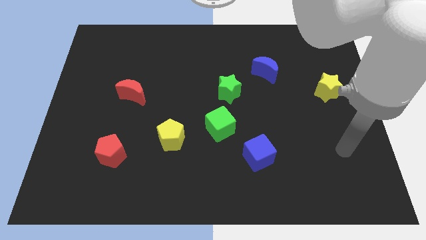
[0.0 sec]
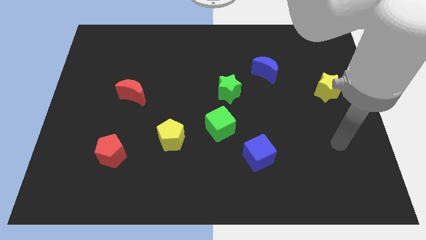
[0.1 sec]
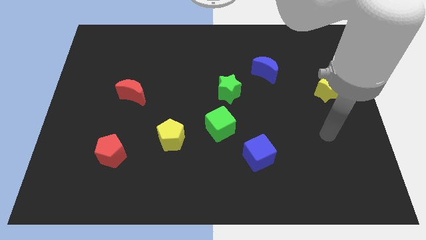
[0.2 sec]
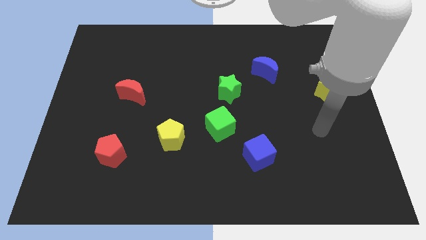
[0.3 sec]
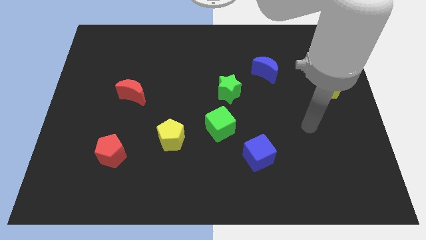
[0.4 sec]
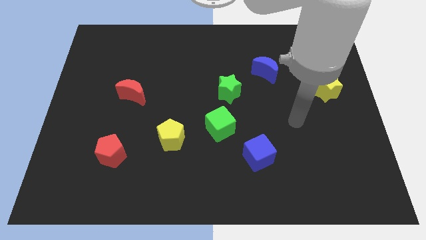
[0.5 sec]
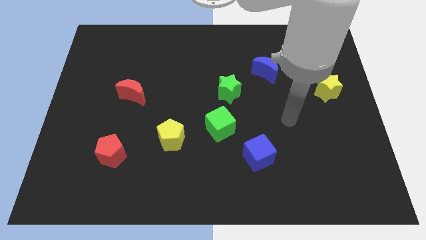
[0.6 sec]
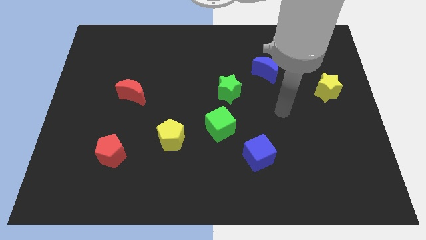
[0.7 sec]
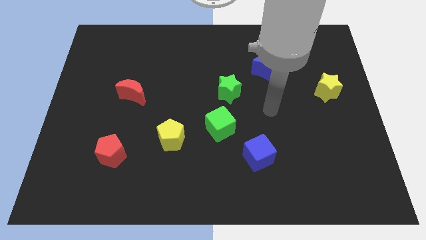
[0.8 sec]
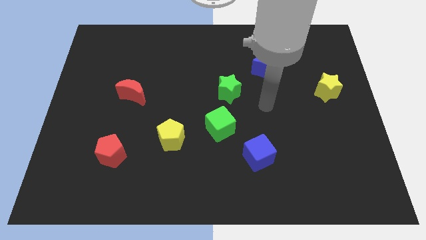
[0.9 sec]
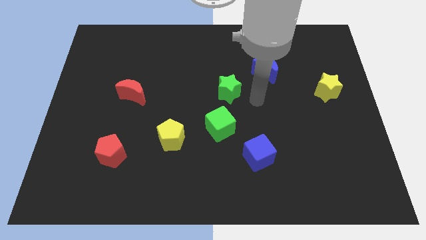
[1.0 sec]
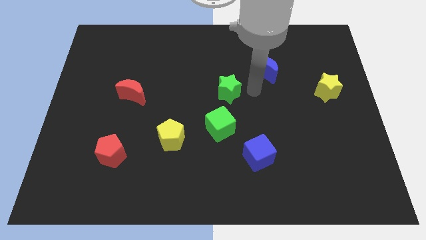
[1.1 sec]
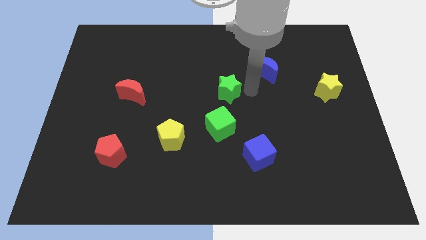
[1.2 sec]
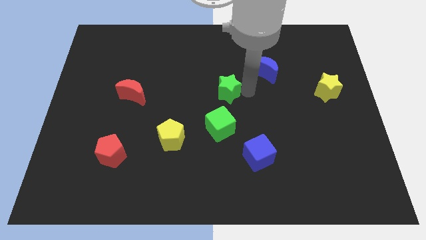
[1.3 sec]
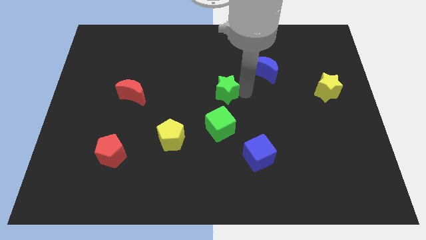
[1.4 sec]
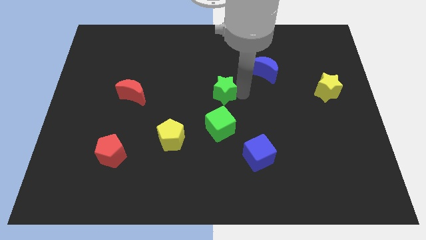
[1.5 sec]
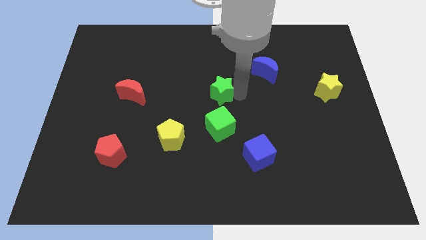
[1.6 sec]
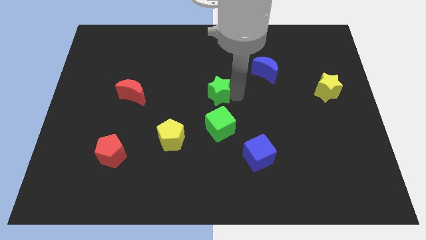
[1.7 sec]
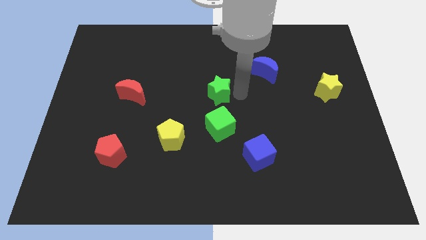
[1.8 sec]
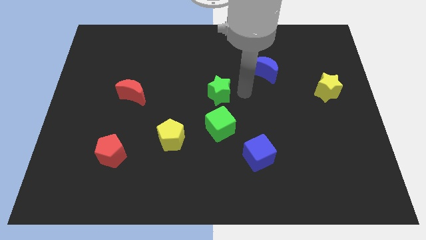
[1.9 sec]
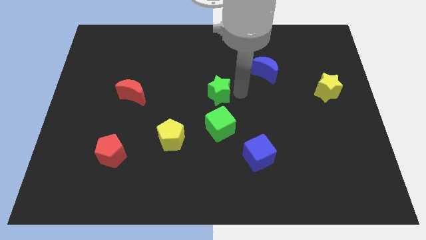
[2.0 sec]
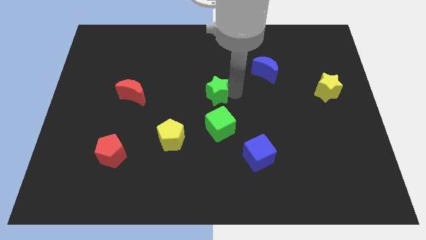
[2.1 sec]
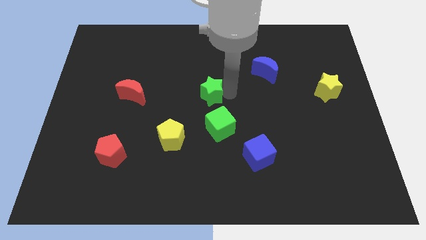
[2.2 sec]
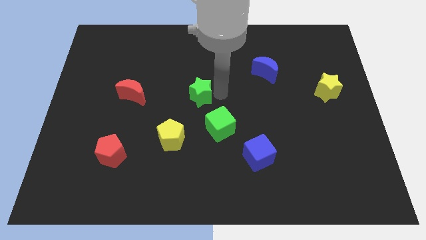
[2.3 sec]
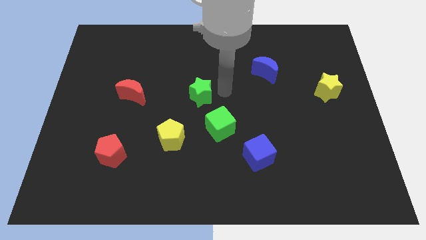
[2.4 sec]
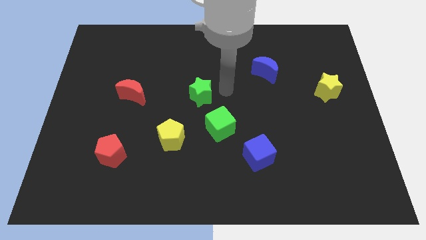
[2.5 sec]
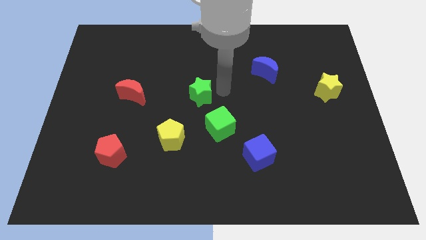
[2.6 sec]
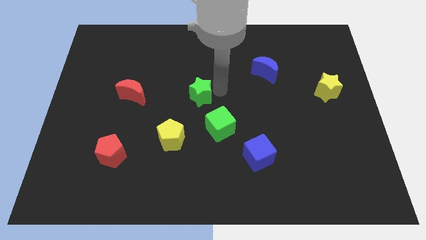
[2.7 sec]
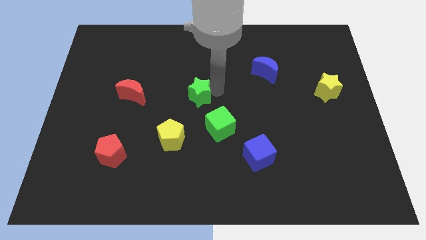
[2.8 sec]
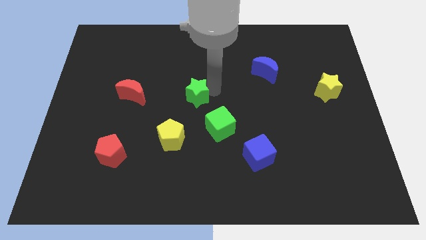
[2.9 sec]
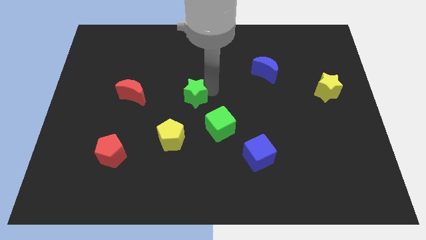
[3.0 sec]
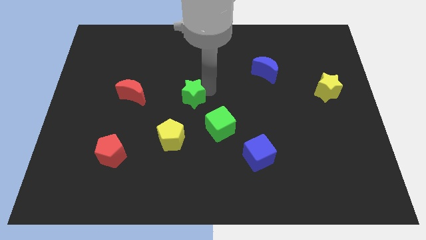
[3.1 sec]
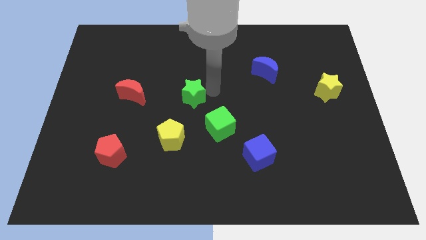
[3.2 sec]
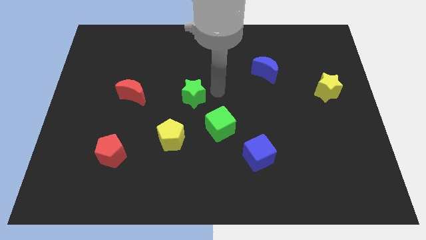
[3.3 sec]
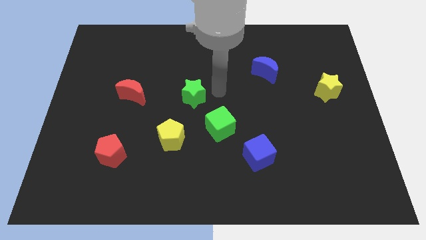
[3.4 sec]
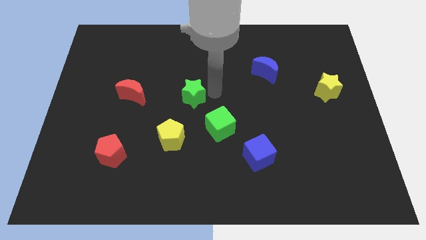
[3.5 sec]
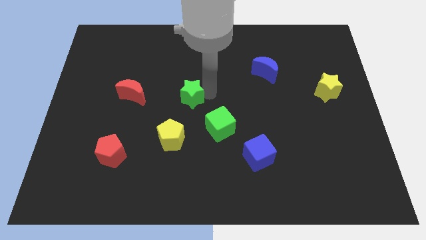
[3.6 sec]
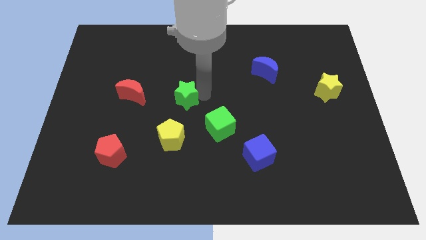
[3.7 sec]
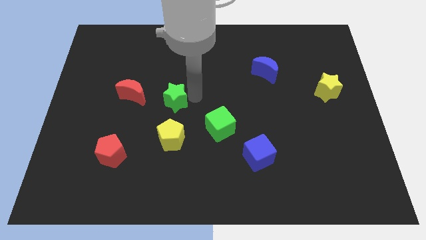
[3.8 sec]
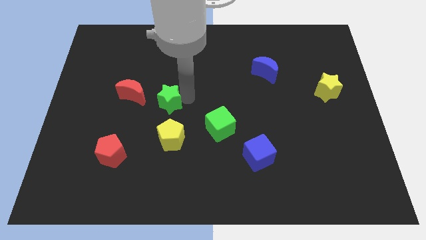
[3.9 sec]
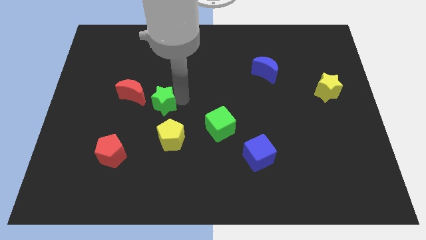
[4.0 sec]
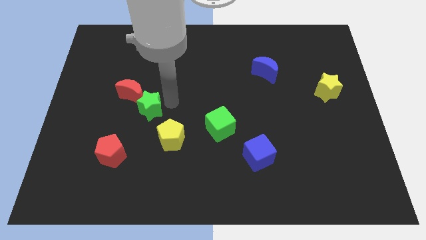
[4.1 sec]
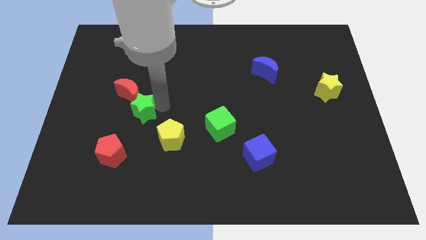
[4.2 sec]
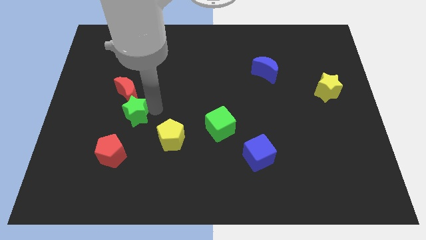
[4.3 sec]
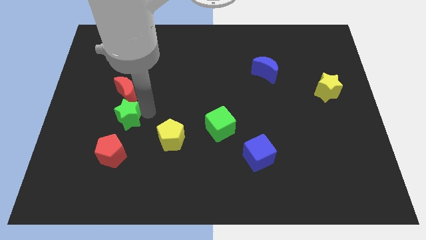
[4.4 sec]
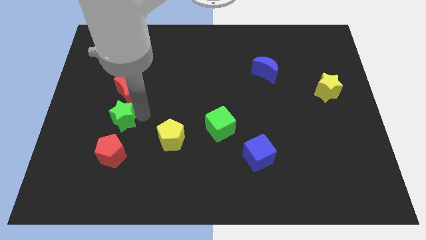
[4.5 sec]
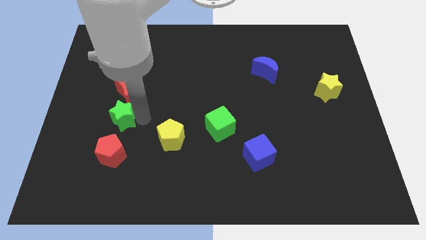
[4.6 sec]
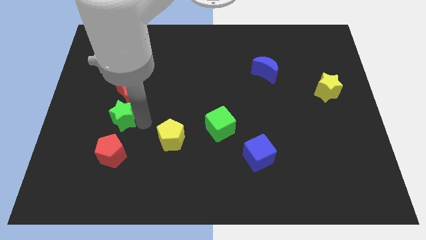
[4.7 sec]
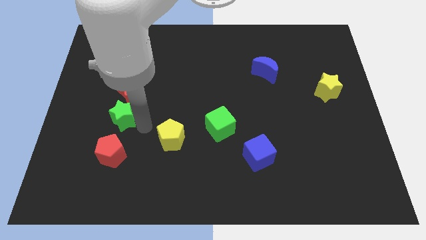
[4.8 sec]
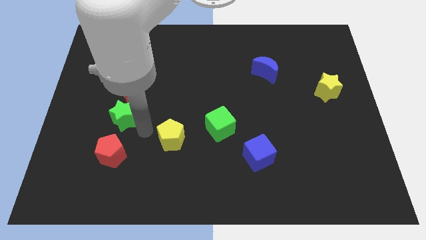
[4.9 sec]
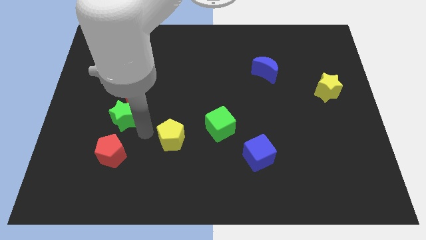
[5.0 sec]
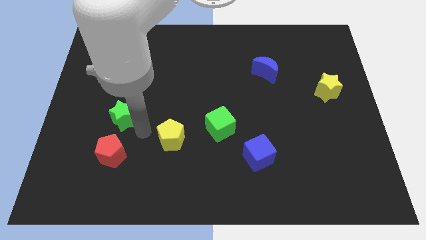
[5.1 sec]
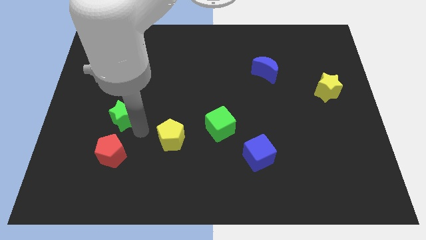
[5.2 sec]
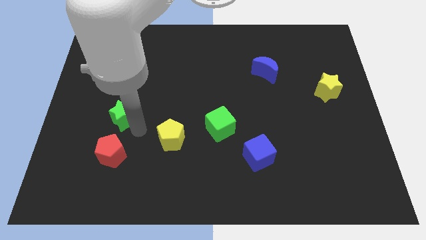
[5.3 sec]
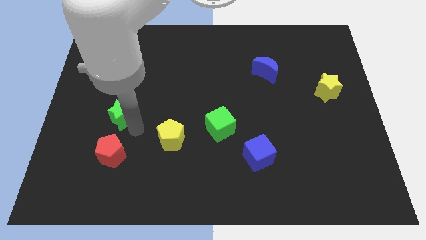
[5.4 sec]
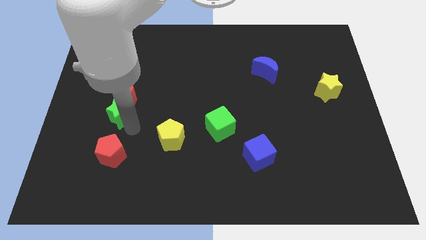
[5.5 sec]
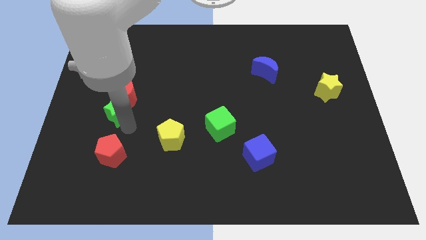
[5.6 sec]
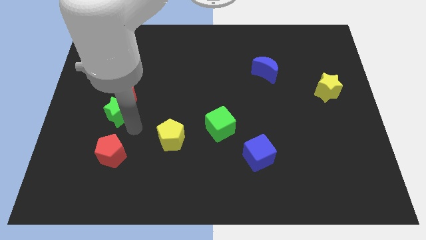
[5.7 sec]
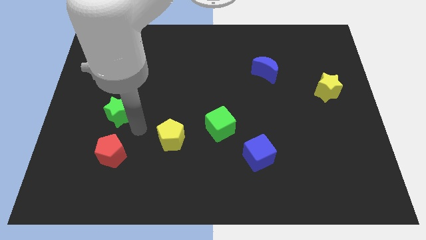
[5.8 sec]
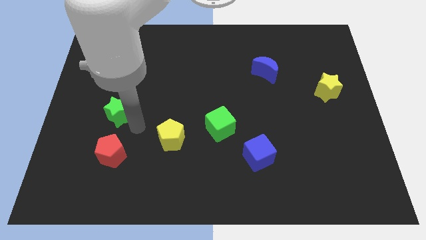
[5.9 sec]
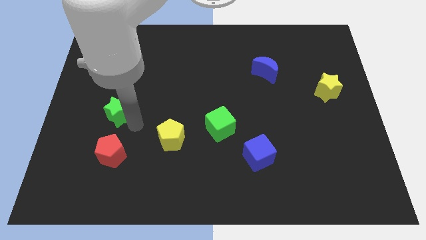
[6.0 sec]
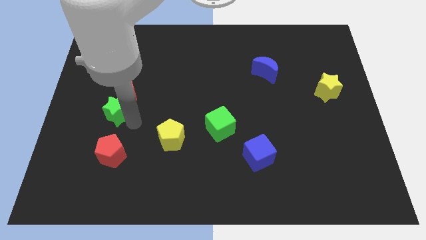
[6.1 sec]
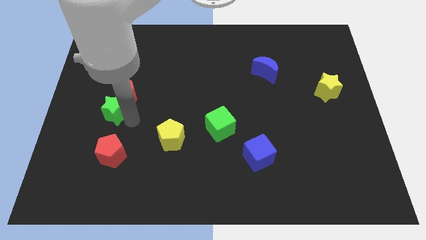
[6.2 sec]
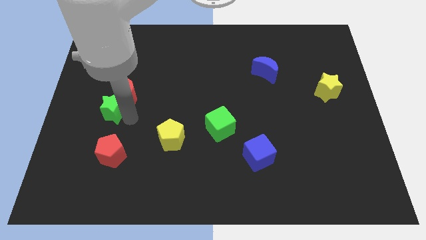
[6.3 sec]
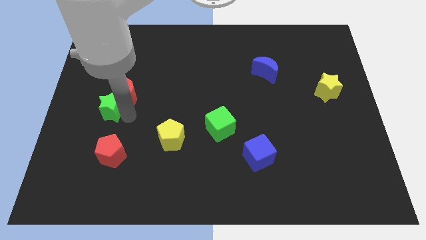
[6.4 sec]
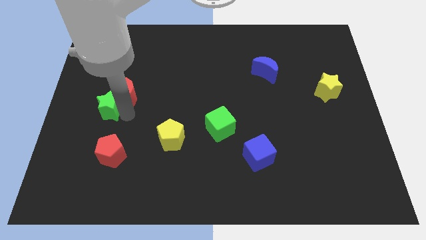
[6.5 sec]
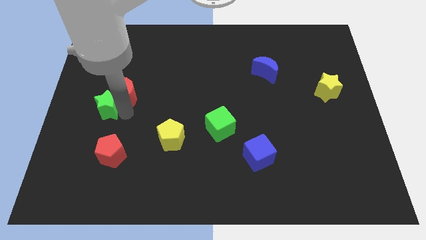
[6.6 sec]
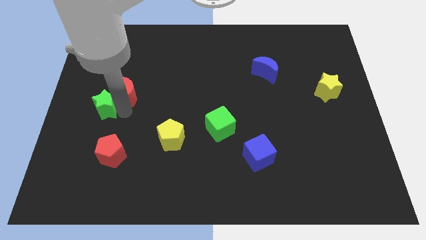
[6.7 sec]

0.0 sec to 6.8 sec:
slide the green star to the center left

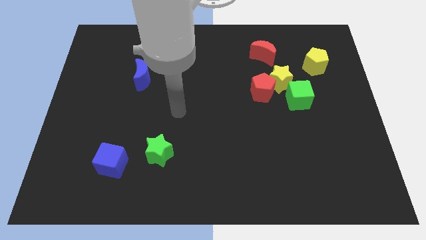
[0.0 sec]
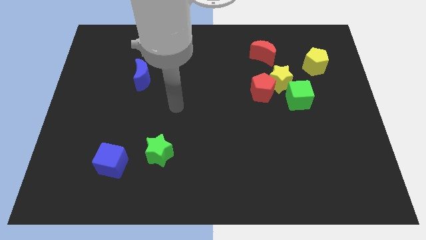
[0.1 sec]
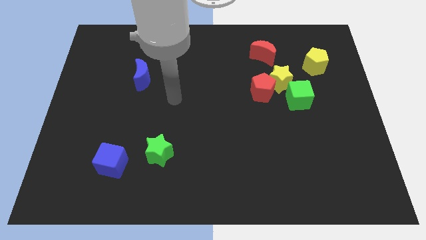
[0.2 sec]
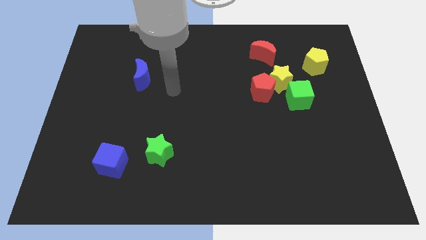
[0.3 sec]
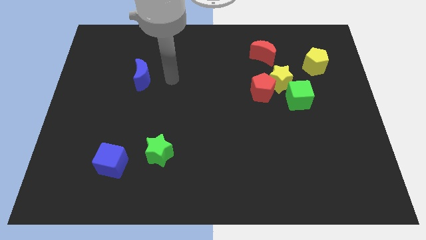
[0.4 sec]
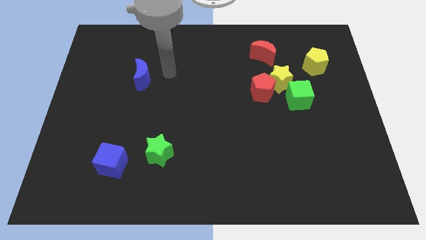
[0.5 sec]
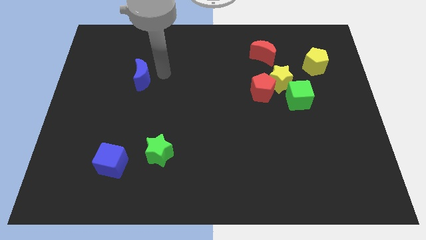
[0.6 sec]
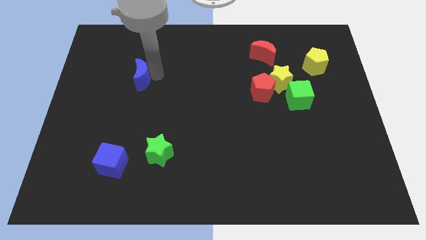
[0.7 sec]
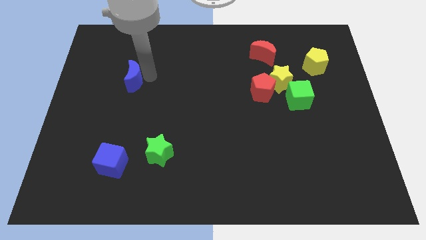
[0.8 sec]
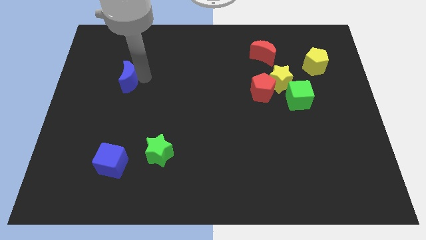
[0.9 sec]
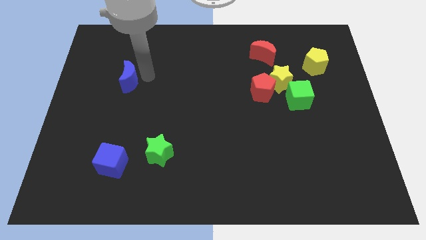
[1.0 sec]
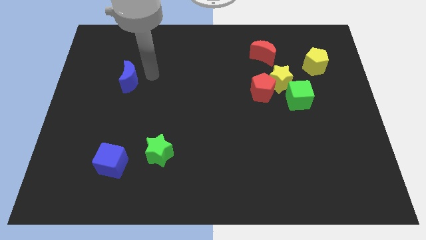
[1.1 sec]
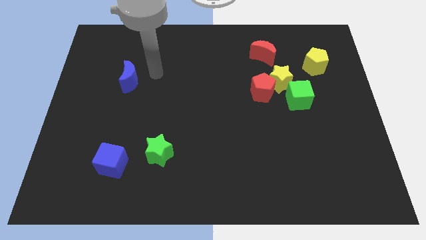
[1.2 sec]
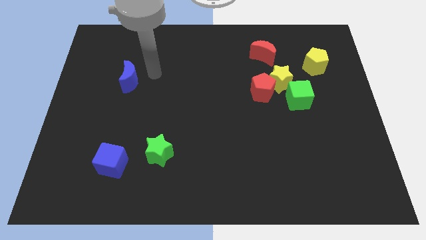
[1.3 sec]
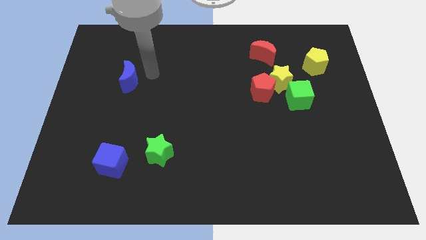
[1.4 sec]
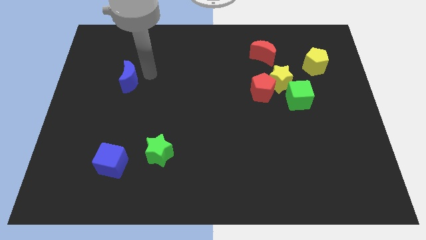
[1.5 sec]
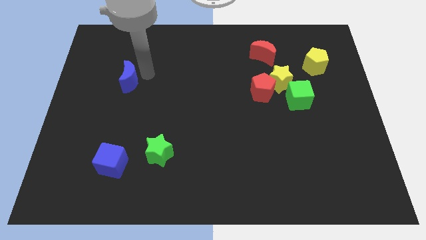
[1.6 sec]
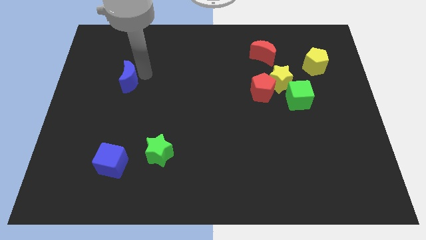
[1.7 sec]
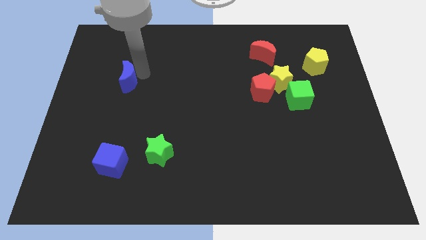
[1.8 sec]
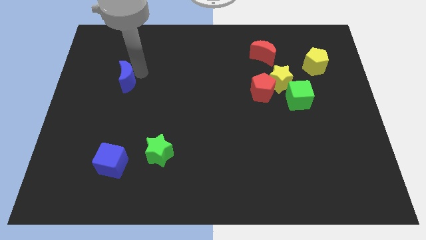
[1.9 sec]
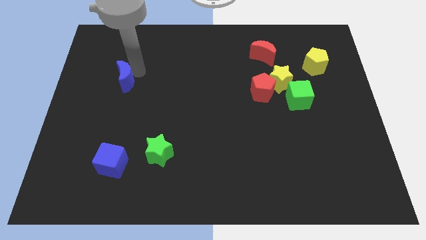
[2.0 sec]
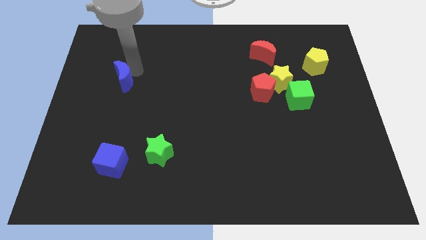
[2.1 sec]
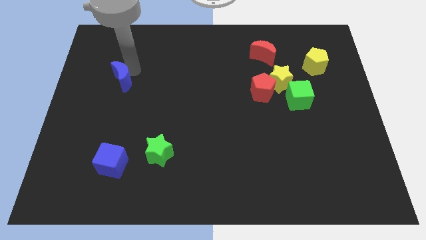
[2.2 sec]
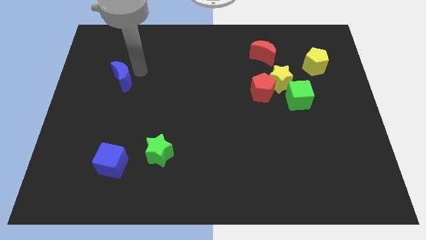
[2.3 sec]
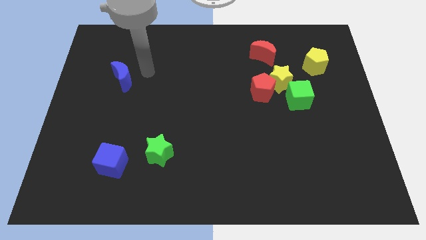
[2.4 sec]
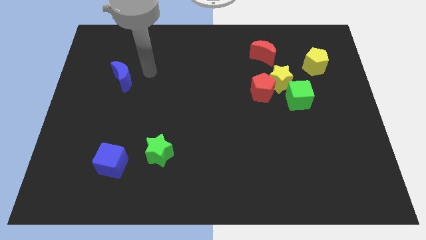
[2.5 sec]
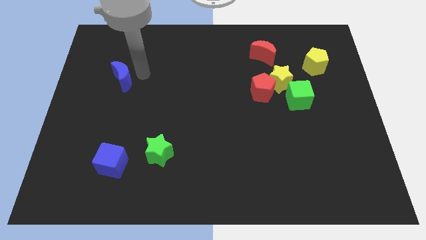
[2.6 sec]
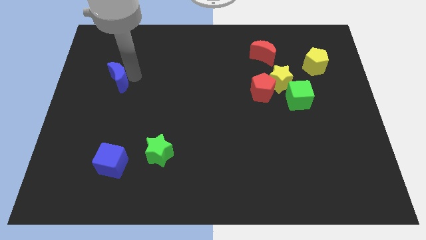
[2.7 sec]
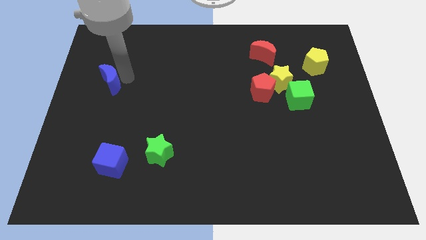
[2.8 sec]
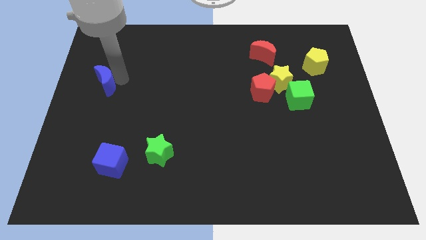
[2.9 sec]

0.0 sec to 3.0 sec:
move the blue moon to the left side
